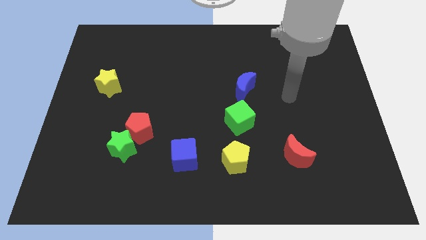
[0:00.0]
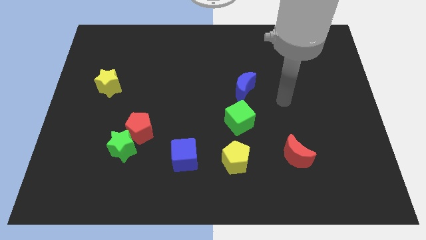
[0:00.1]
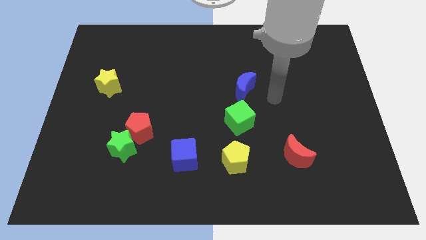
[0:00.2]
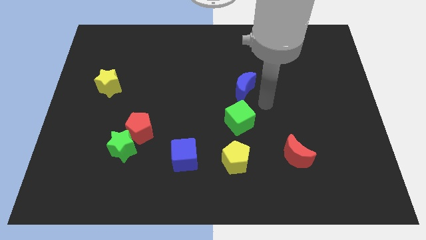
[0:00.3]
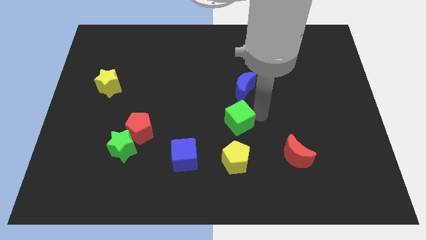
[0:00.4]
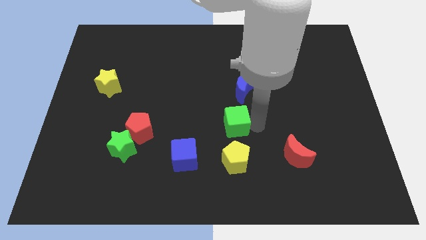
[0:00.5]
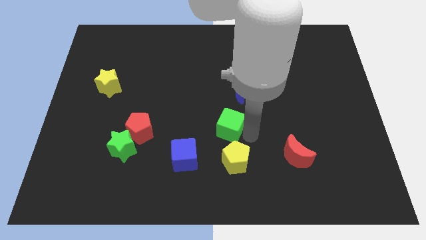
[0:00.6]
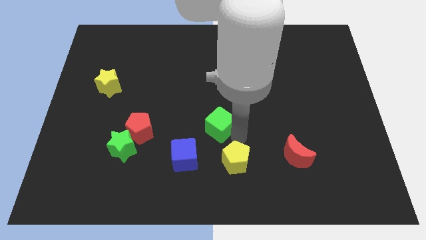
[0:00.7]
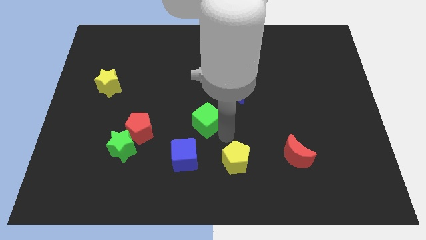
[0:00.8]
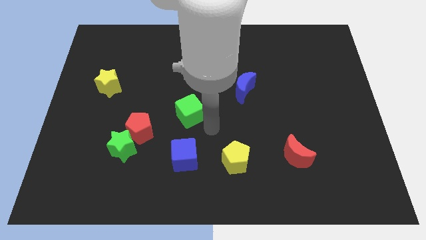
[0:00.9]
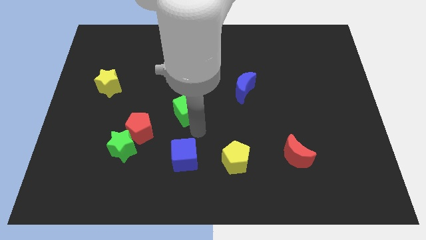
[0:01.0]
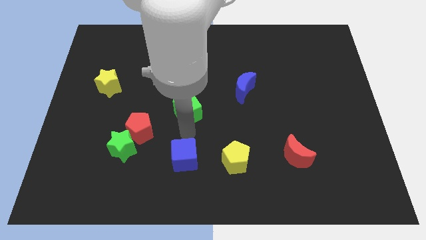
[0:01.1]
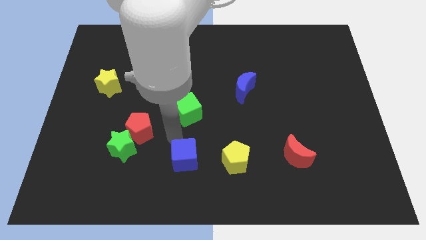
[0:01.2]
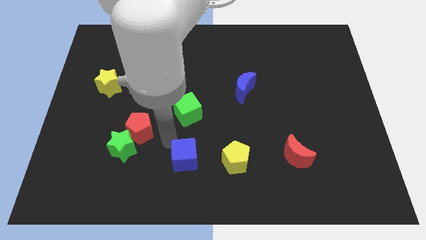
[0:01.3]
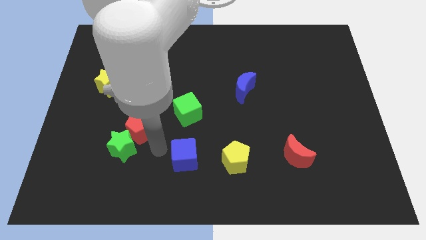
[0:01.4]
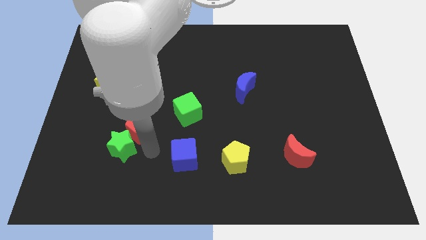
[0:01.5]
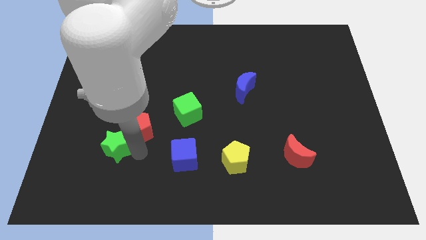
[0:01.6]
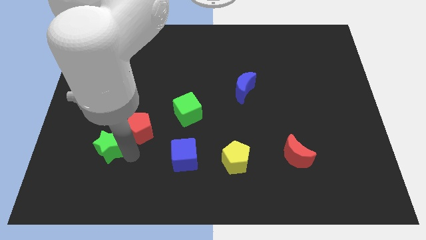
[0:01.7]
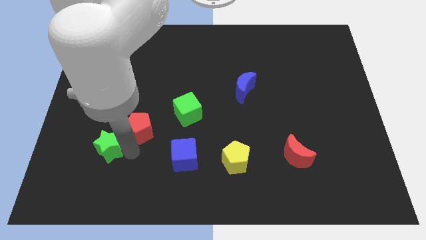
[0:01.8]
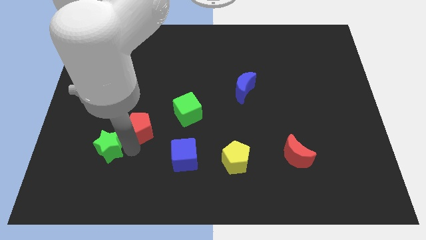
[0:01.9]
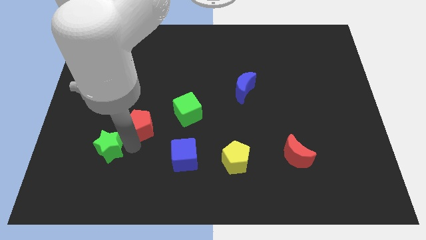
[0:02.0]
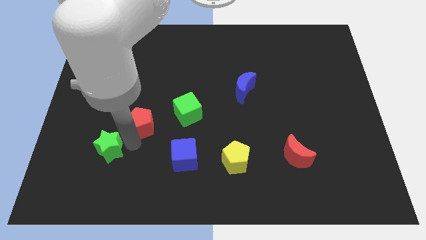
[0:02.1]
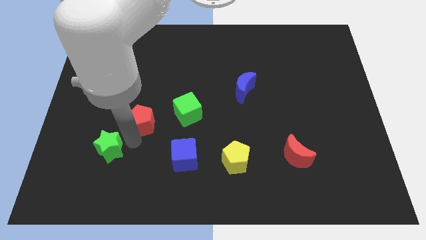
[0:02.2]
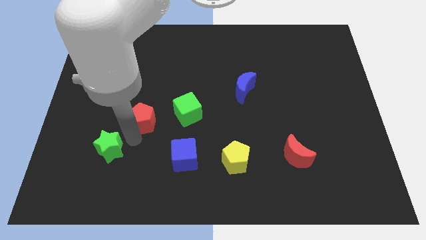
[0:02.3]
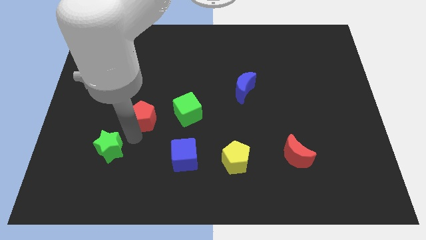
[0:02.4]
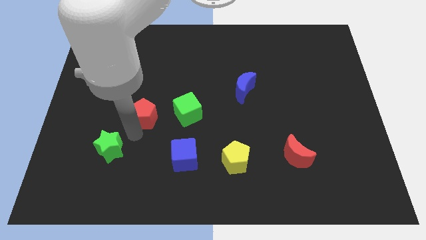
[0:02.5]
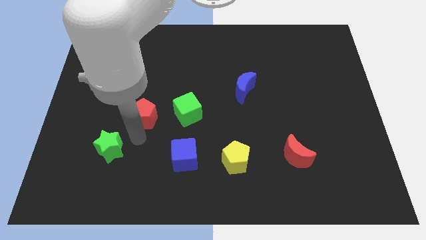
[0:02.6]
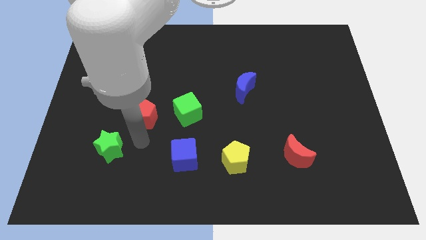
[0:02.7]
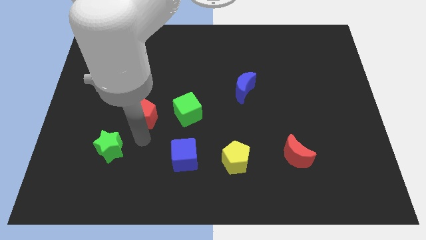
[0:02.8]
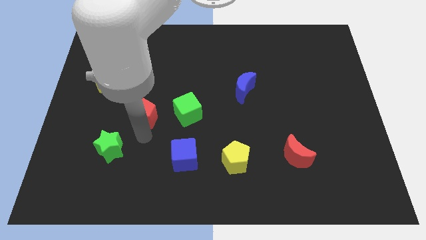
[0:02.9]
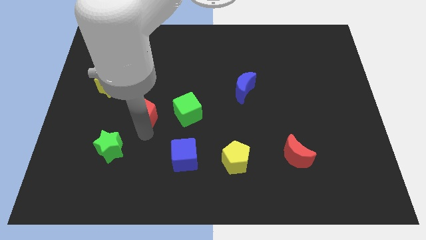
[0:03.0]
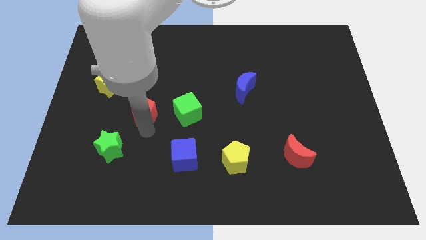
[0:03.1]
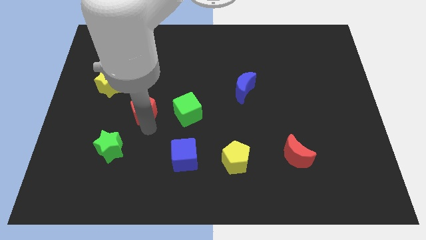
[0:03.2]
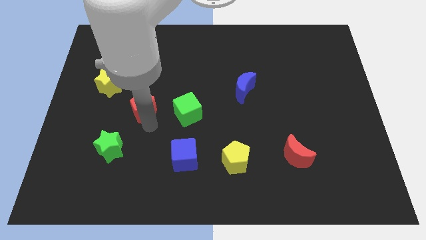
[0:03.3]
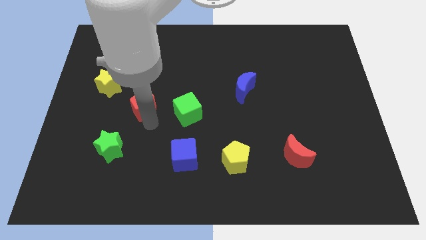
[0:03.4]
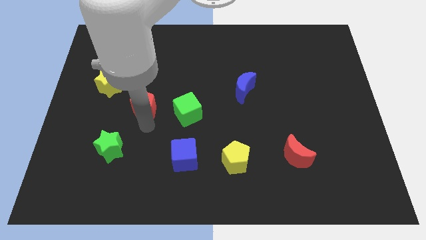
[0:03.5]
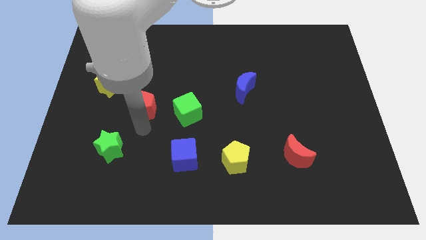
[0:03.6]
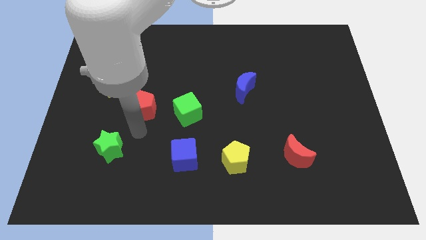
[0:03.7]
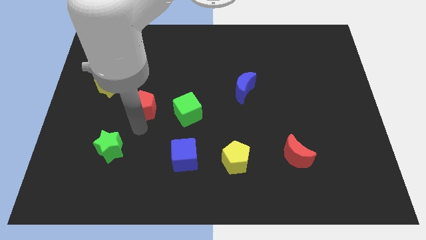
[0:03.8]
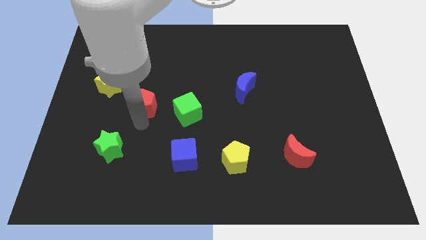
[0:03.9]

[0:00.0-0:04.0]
slide the red pentagon somewhat upwards

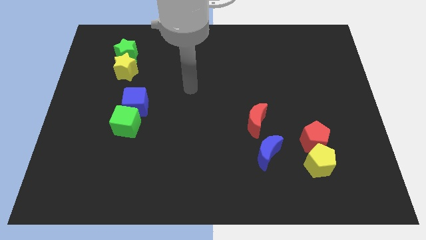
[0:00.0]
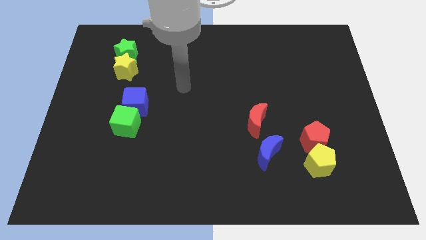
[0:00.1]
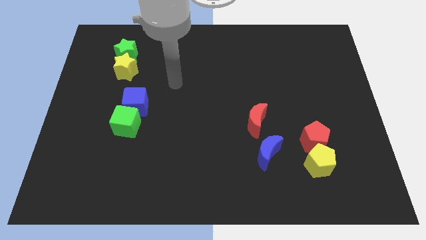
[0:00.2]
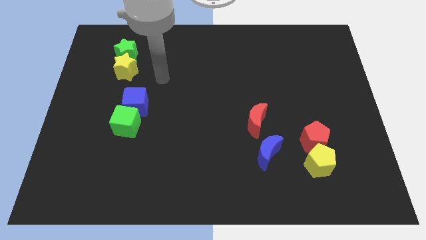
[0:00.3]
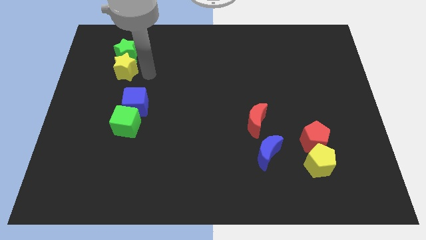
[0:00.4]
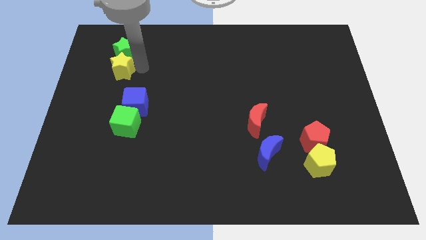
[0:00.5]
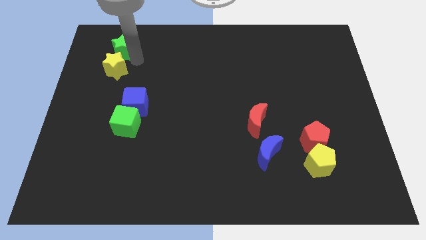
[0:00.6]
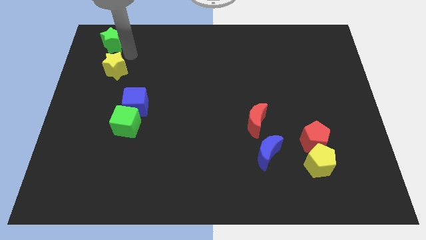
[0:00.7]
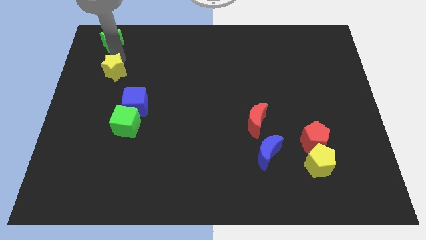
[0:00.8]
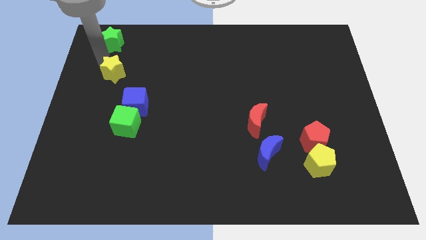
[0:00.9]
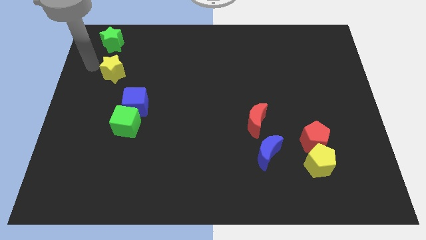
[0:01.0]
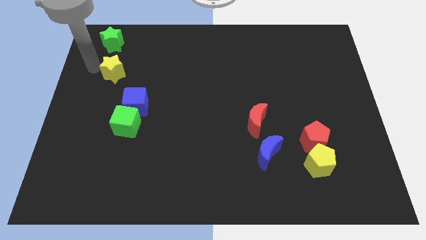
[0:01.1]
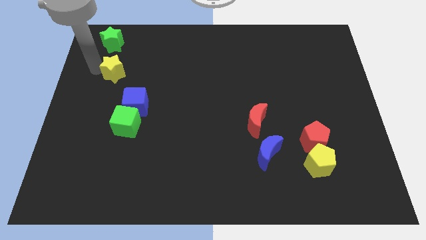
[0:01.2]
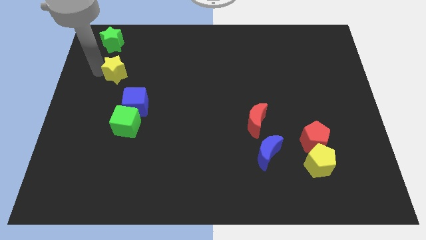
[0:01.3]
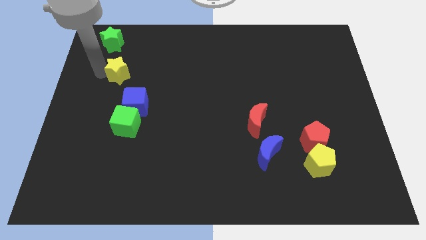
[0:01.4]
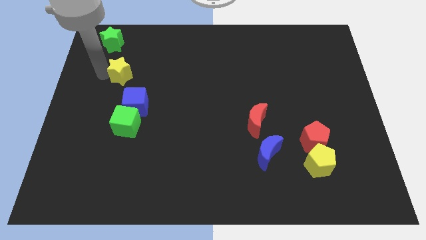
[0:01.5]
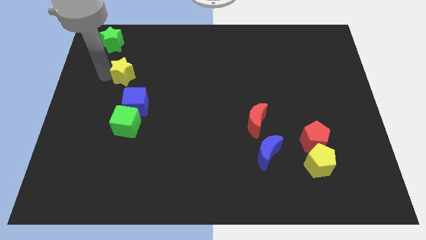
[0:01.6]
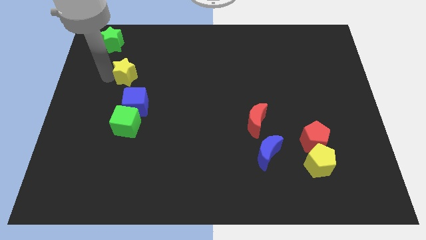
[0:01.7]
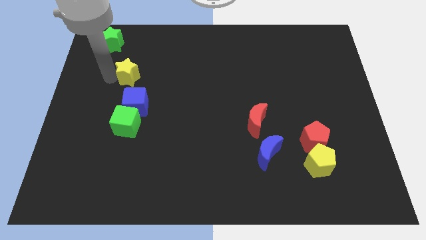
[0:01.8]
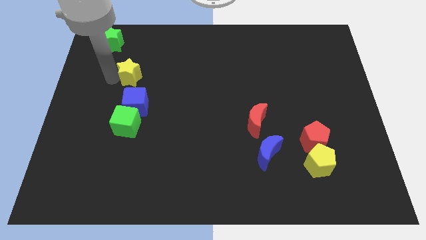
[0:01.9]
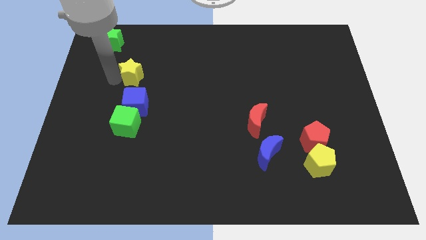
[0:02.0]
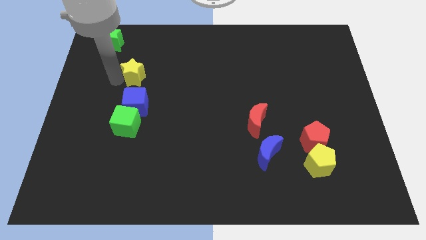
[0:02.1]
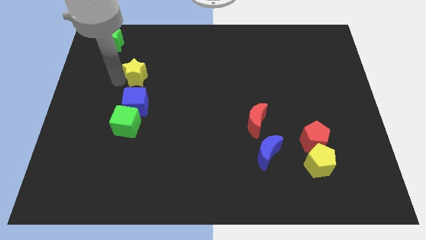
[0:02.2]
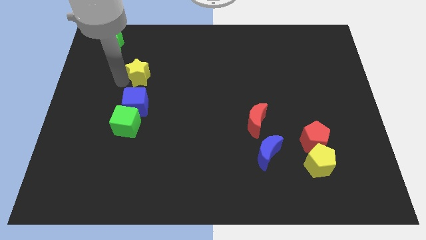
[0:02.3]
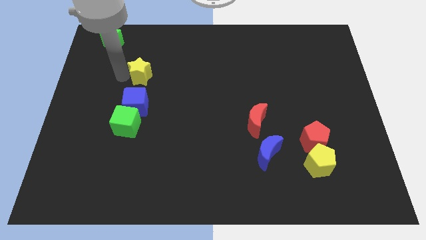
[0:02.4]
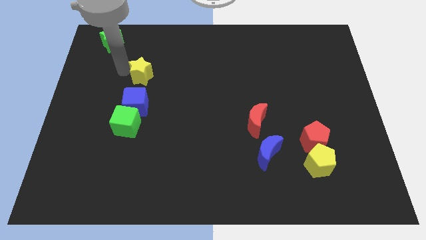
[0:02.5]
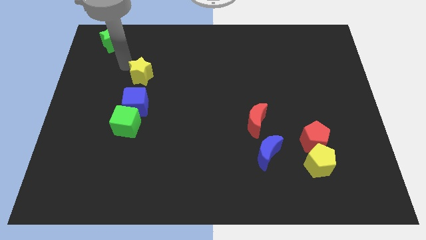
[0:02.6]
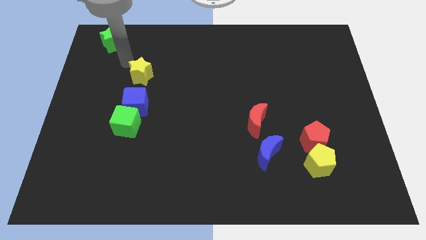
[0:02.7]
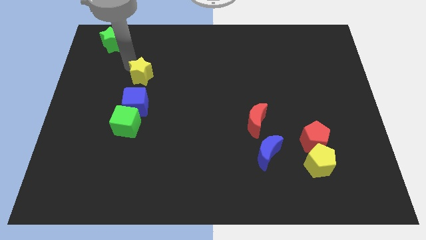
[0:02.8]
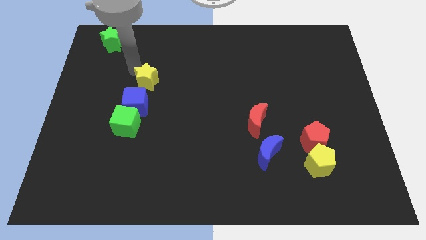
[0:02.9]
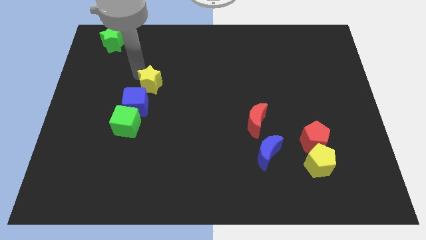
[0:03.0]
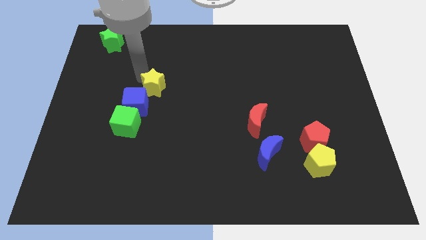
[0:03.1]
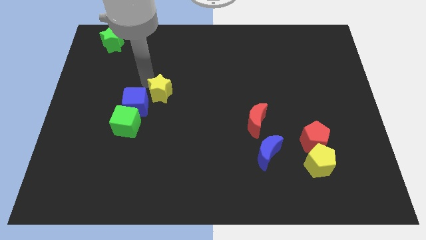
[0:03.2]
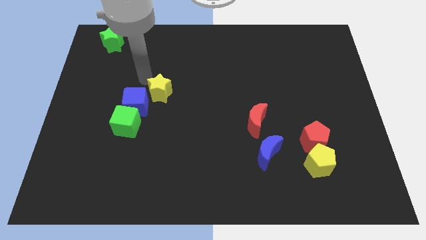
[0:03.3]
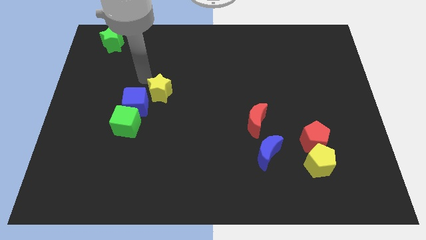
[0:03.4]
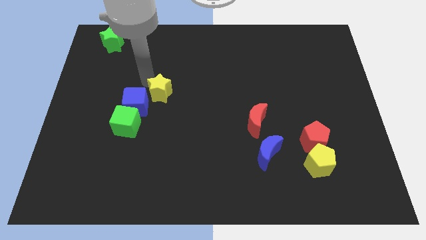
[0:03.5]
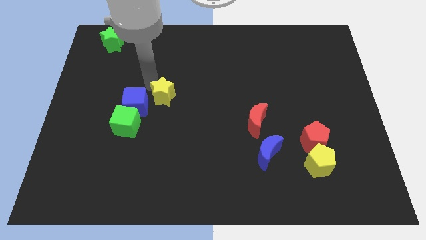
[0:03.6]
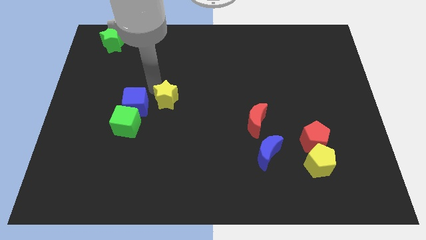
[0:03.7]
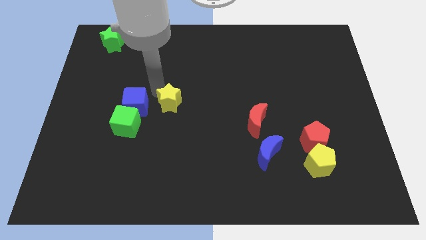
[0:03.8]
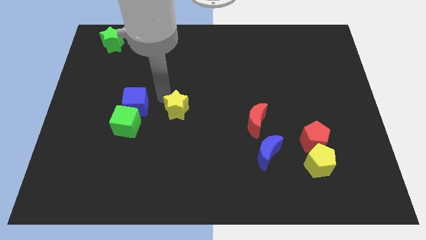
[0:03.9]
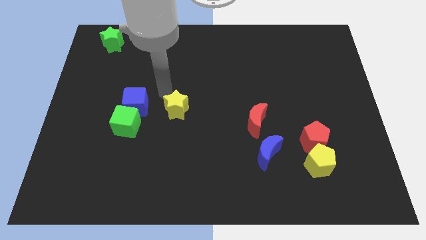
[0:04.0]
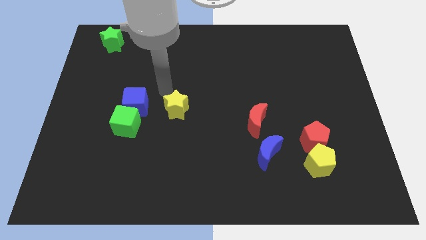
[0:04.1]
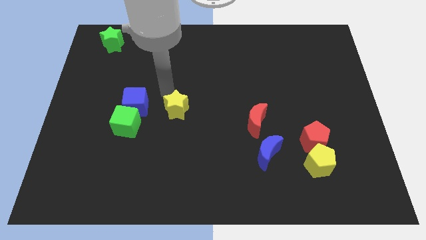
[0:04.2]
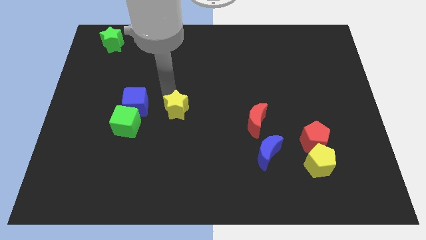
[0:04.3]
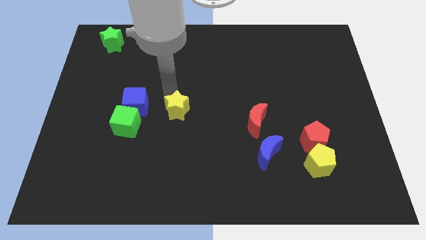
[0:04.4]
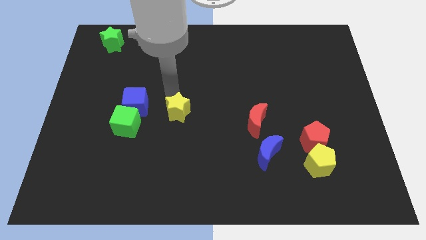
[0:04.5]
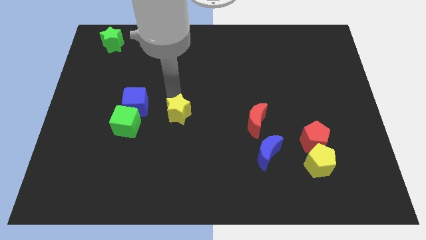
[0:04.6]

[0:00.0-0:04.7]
slide the yellow star diagonally down and right
